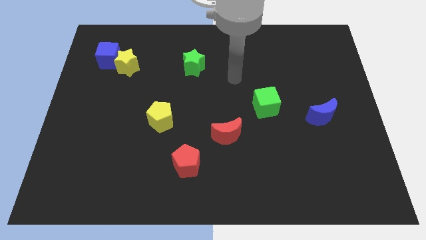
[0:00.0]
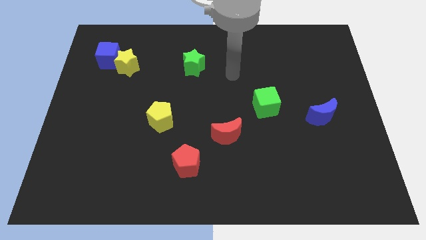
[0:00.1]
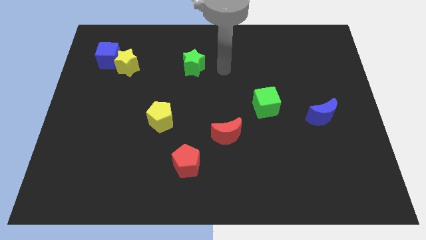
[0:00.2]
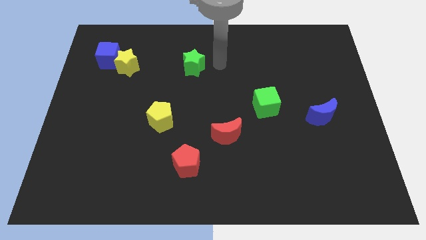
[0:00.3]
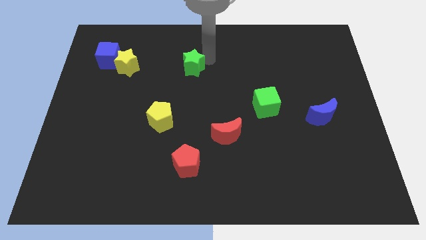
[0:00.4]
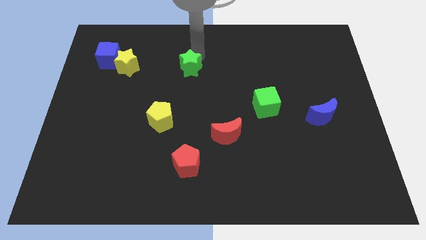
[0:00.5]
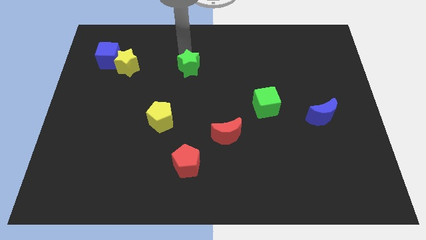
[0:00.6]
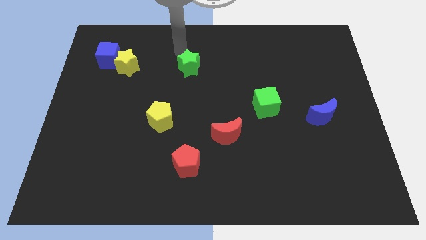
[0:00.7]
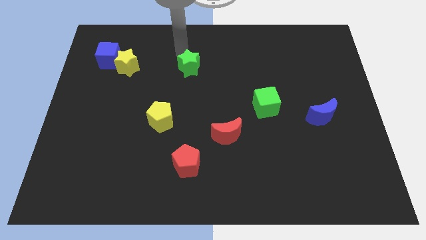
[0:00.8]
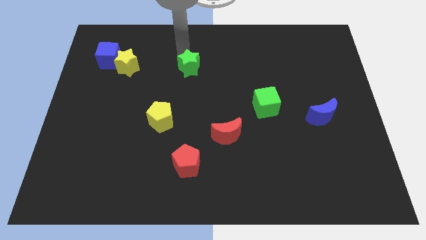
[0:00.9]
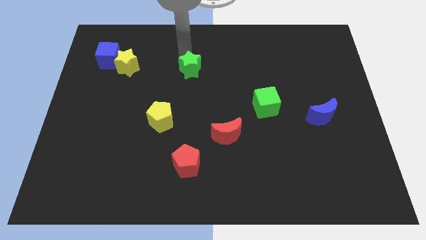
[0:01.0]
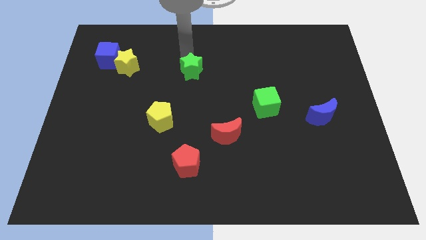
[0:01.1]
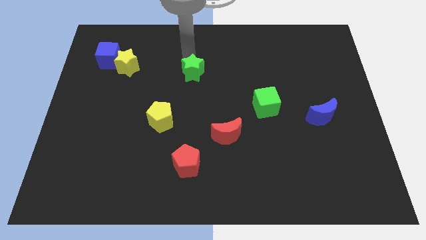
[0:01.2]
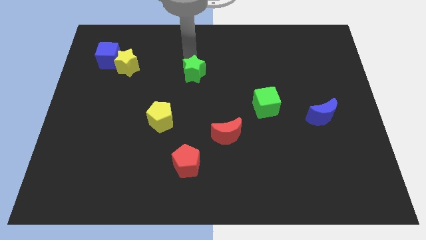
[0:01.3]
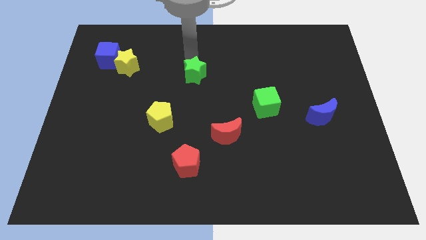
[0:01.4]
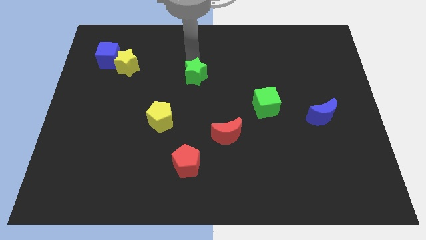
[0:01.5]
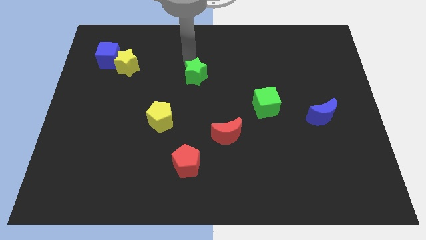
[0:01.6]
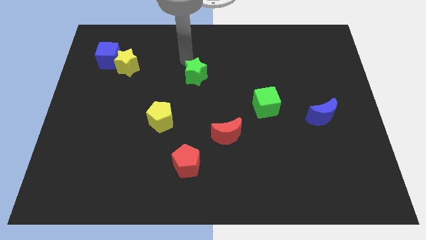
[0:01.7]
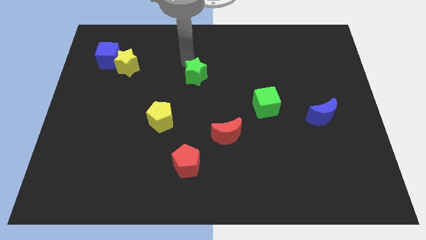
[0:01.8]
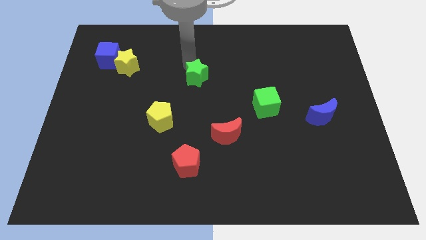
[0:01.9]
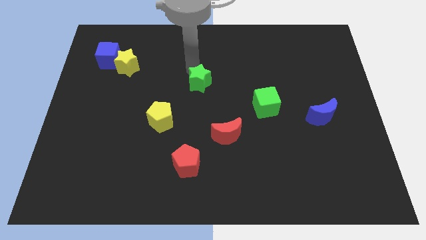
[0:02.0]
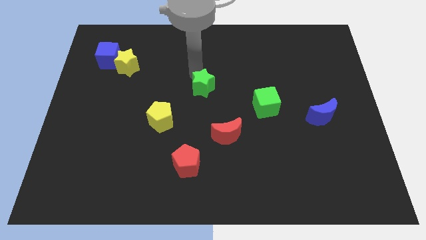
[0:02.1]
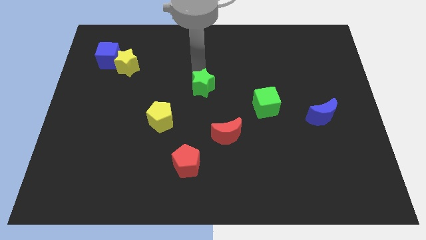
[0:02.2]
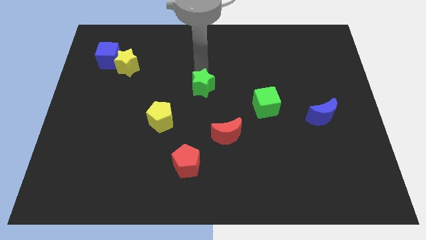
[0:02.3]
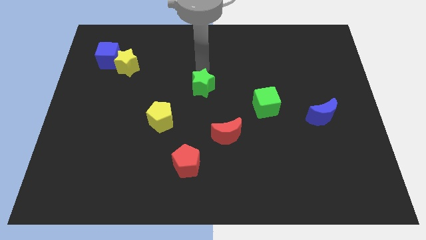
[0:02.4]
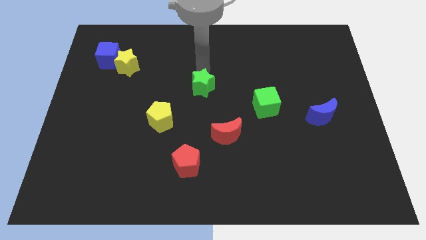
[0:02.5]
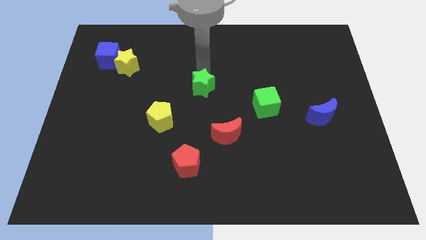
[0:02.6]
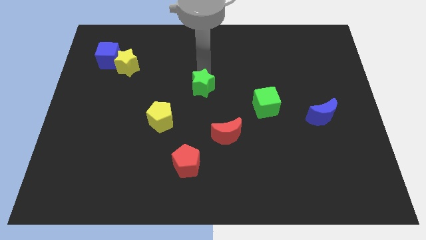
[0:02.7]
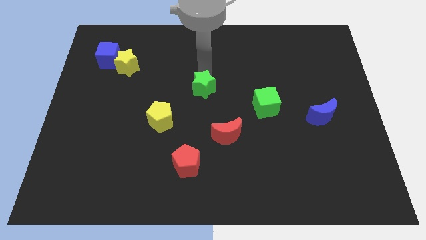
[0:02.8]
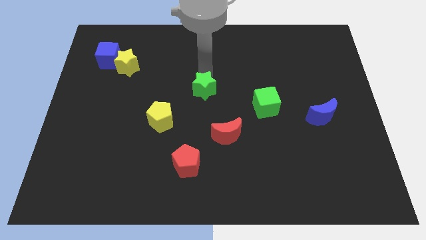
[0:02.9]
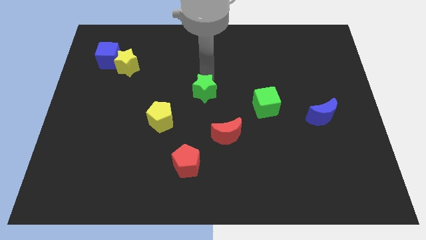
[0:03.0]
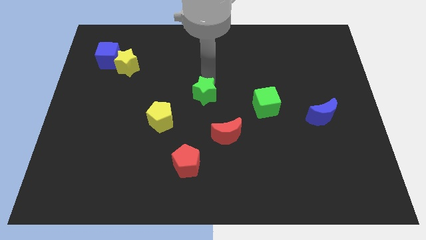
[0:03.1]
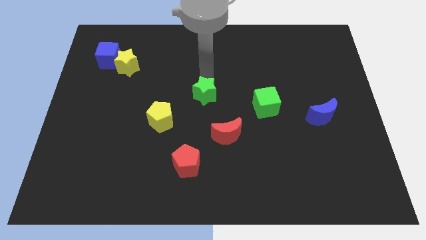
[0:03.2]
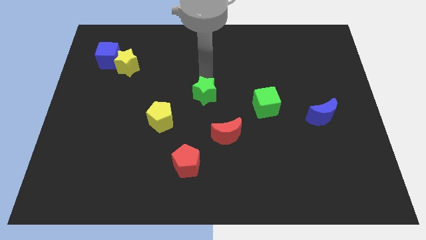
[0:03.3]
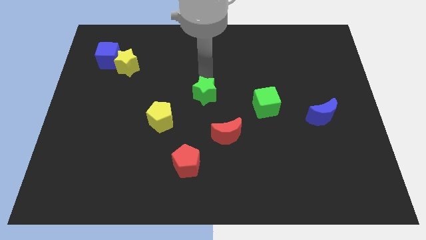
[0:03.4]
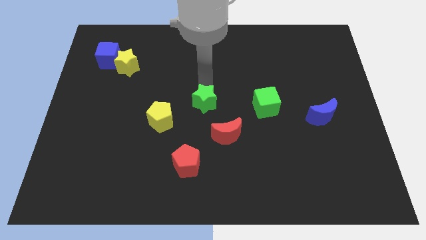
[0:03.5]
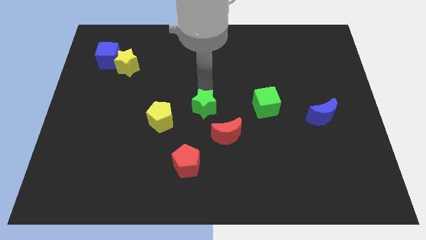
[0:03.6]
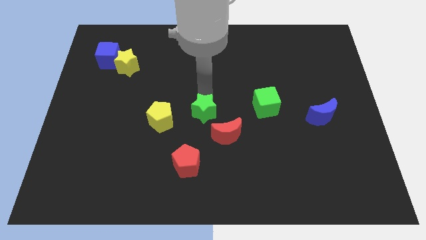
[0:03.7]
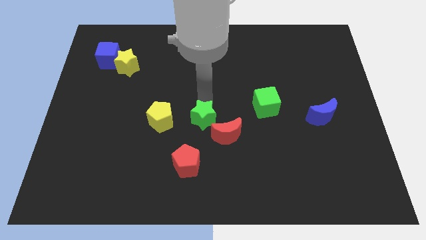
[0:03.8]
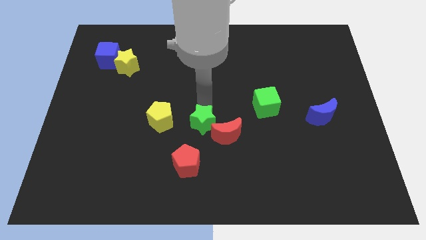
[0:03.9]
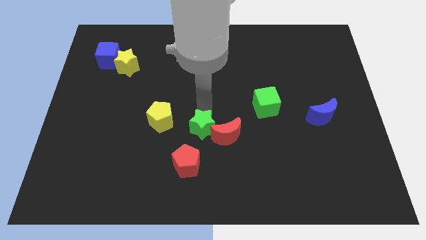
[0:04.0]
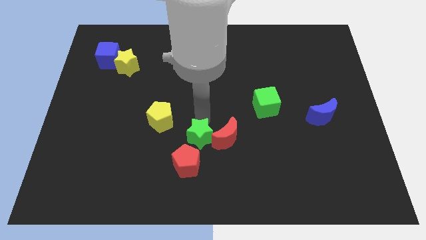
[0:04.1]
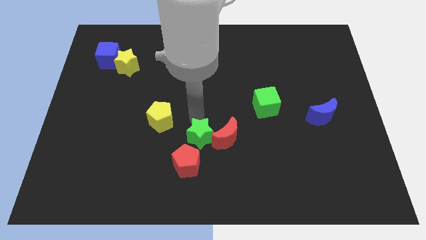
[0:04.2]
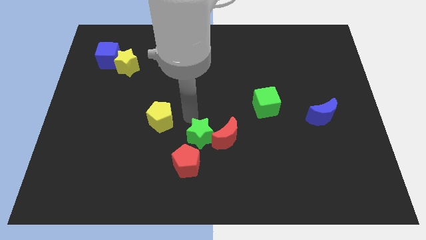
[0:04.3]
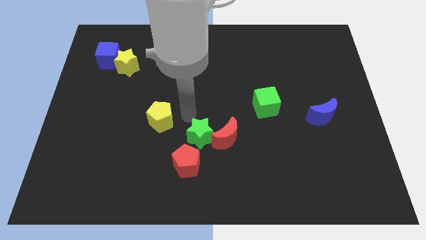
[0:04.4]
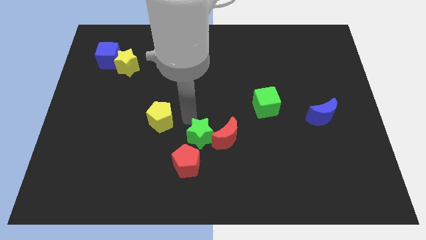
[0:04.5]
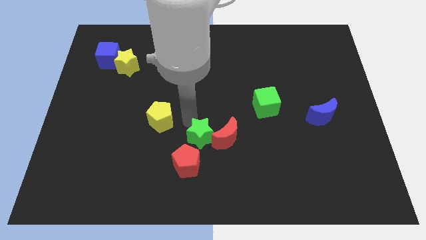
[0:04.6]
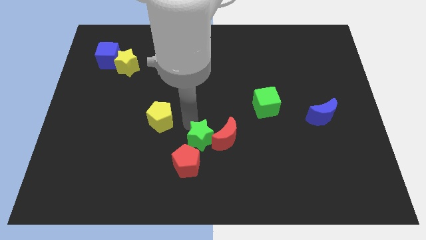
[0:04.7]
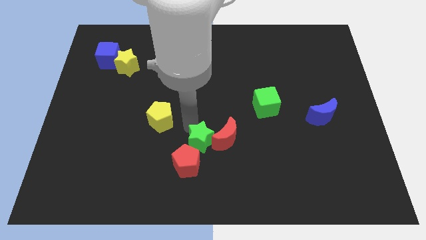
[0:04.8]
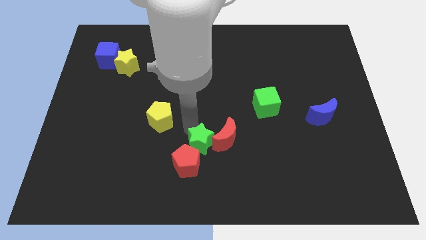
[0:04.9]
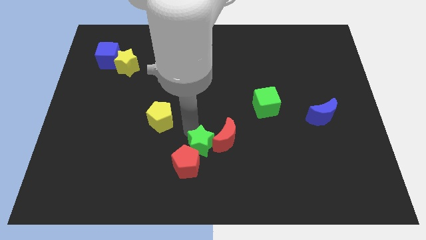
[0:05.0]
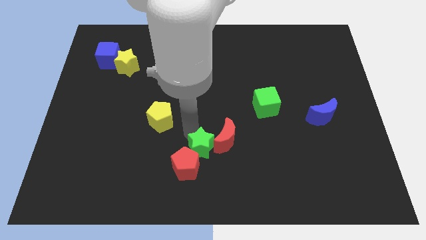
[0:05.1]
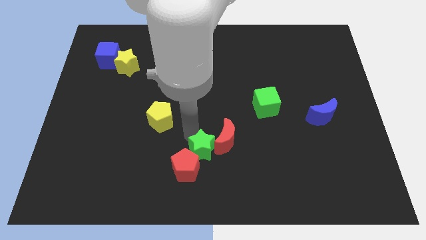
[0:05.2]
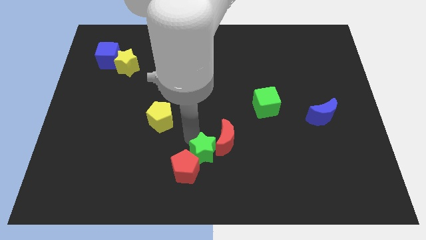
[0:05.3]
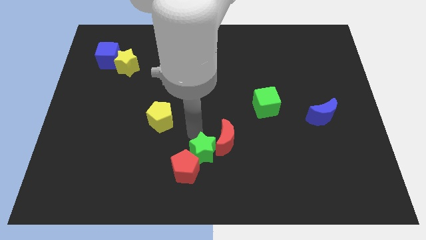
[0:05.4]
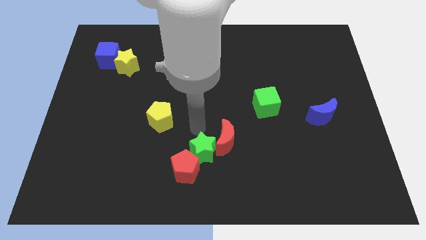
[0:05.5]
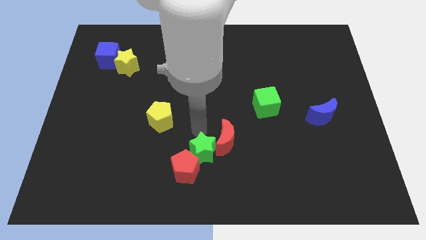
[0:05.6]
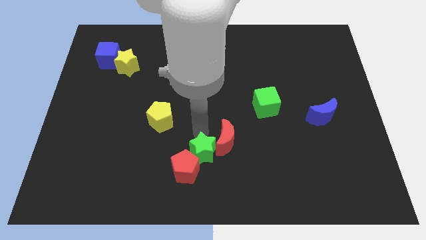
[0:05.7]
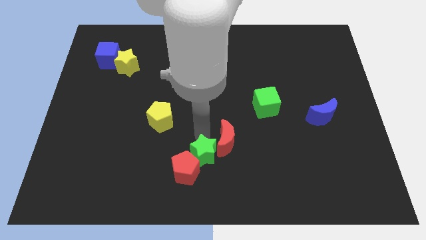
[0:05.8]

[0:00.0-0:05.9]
slide the green star to the bottom
